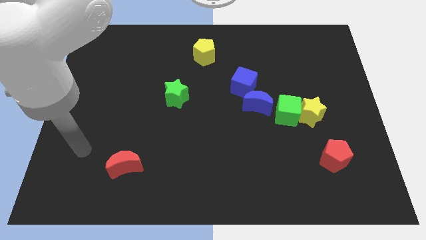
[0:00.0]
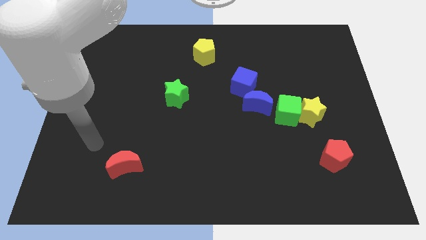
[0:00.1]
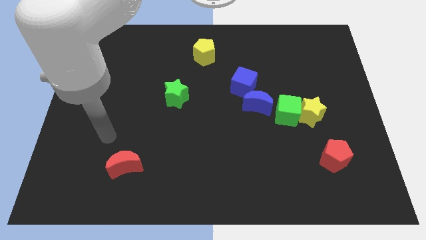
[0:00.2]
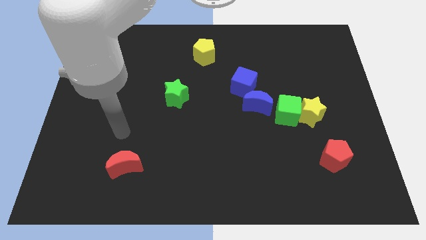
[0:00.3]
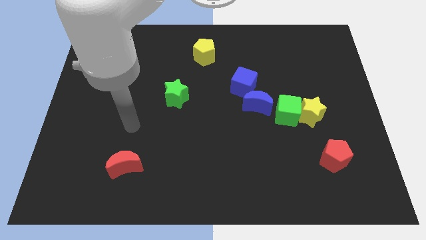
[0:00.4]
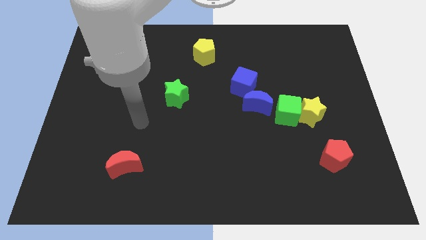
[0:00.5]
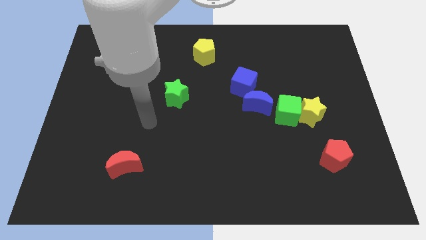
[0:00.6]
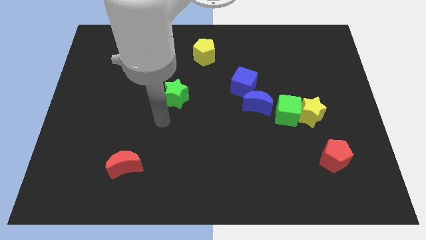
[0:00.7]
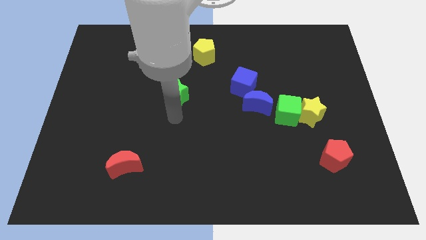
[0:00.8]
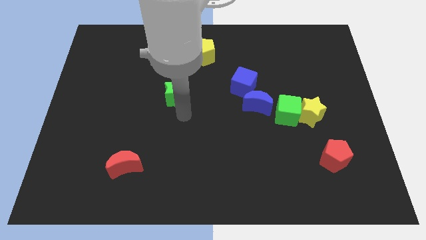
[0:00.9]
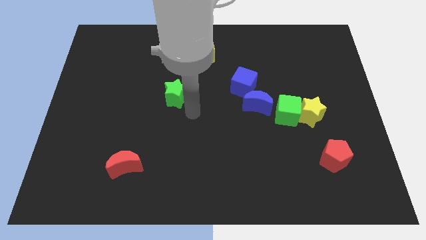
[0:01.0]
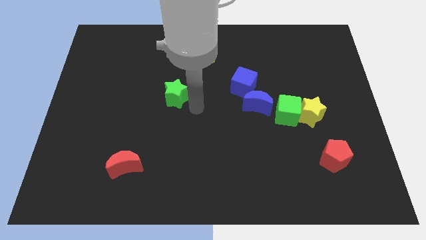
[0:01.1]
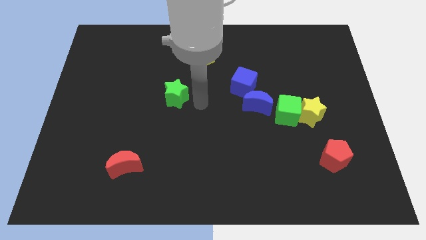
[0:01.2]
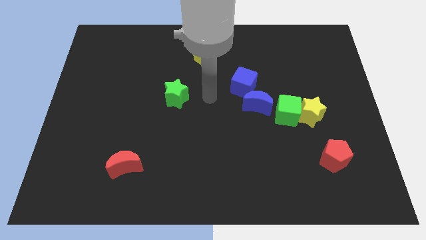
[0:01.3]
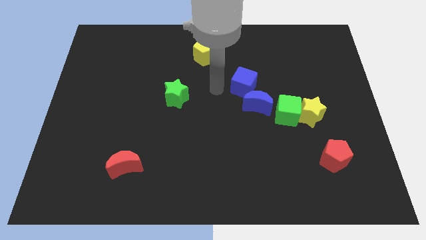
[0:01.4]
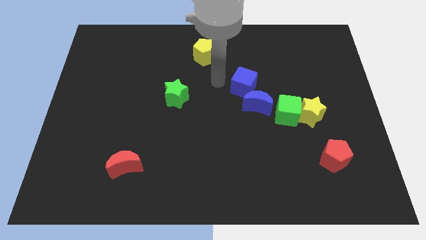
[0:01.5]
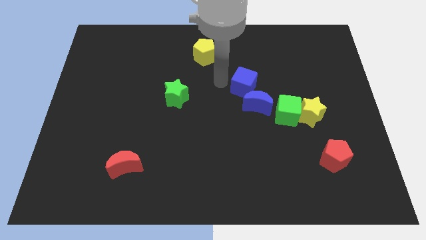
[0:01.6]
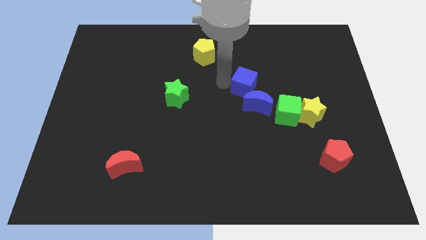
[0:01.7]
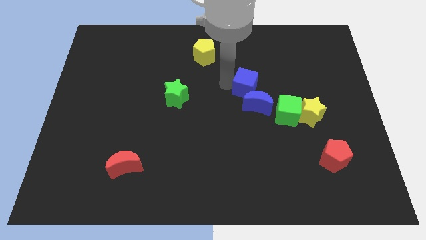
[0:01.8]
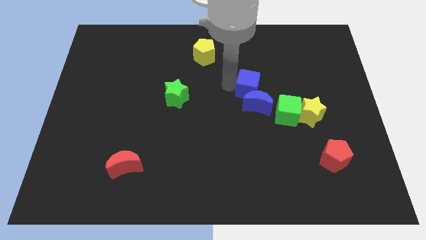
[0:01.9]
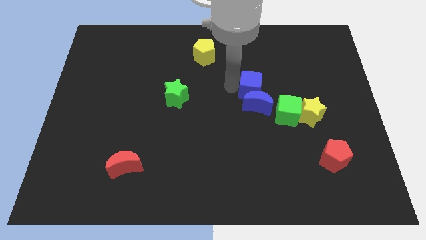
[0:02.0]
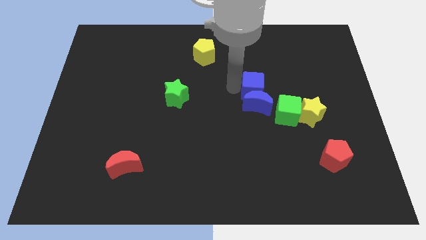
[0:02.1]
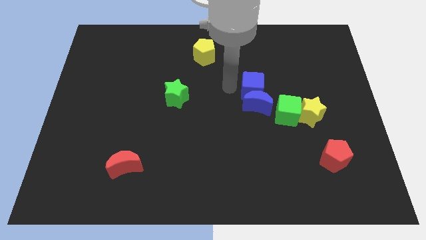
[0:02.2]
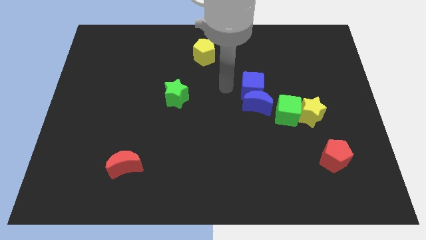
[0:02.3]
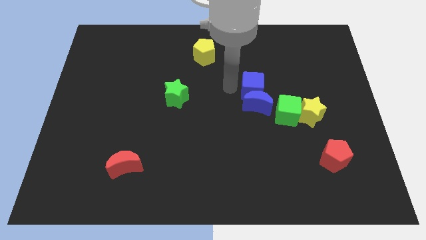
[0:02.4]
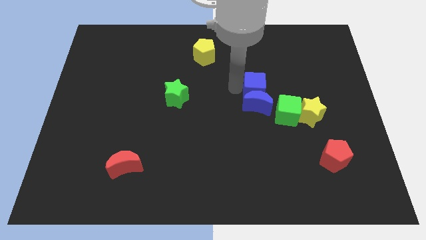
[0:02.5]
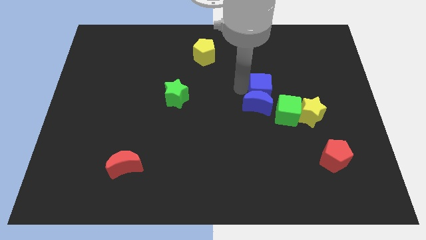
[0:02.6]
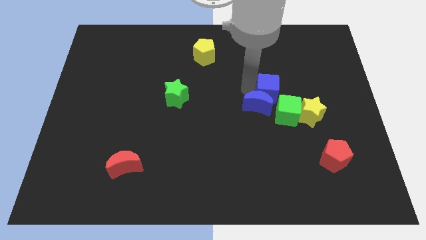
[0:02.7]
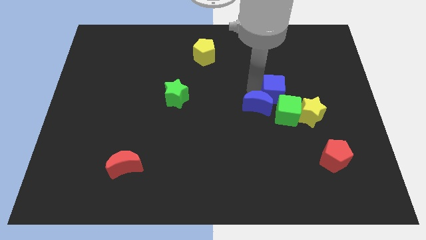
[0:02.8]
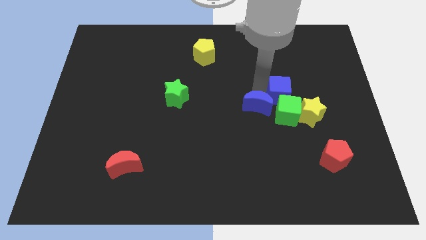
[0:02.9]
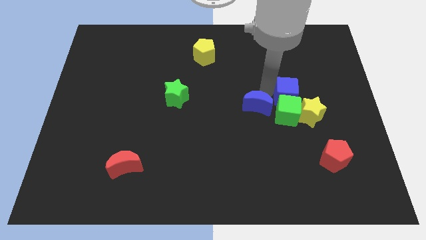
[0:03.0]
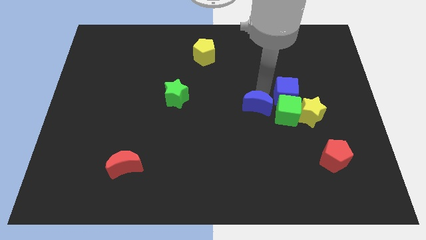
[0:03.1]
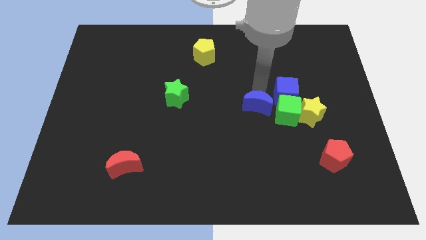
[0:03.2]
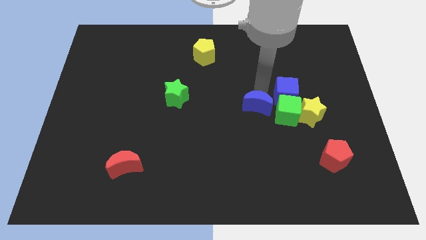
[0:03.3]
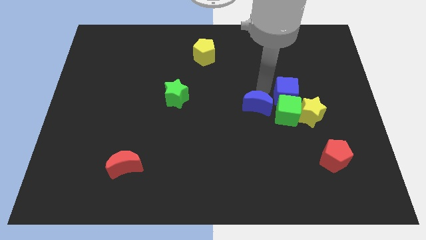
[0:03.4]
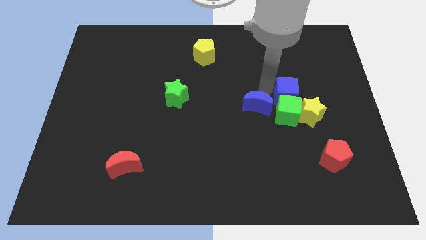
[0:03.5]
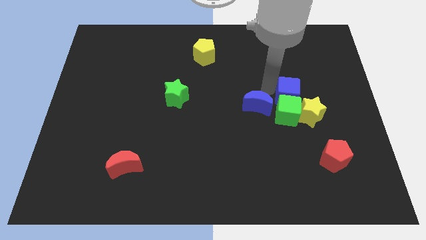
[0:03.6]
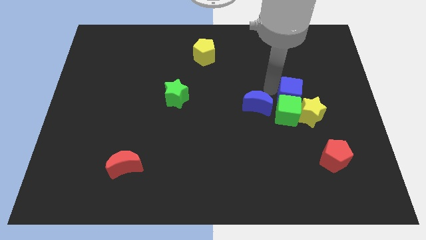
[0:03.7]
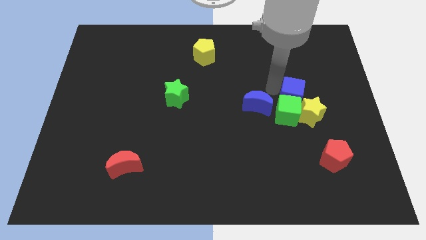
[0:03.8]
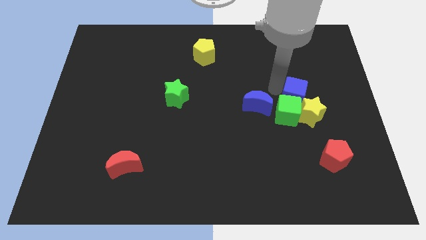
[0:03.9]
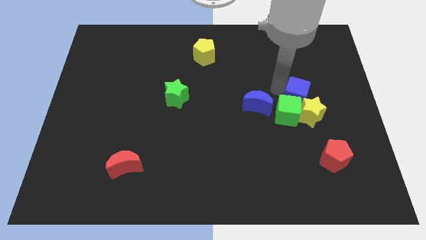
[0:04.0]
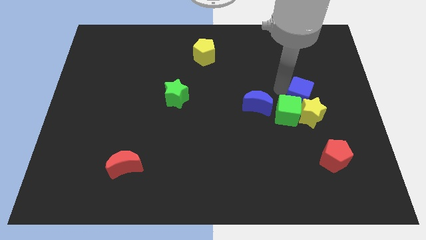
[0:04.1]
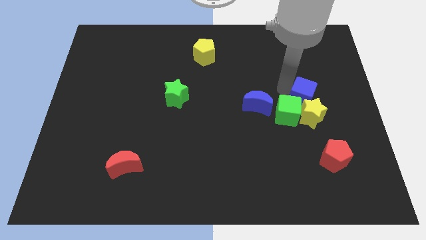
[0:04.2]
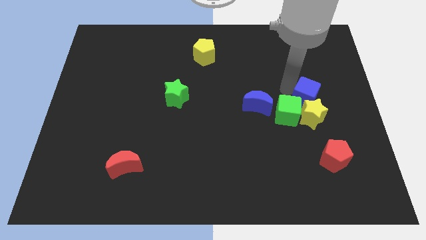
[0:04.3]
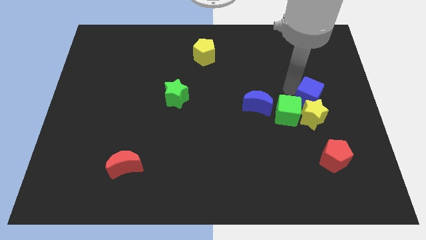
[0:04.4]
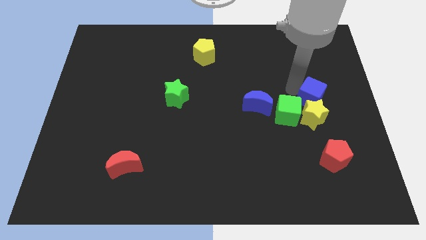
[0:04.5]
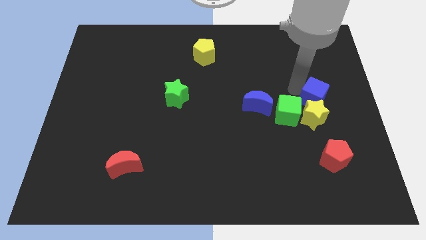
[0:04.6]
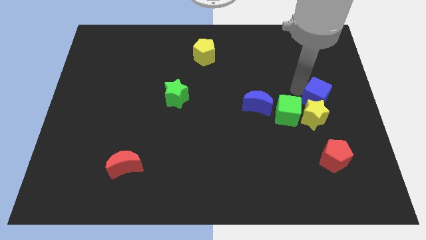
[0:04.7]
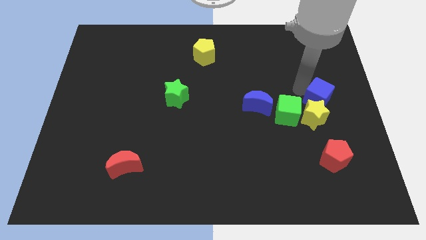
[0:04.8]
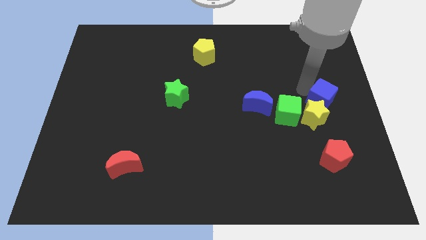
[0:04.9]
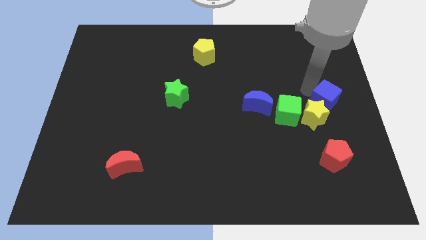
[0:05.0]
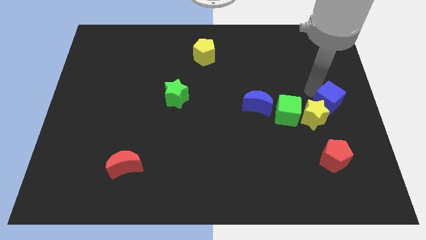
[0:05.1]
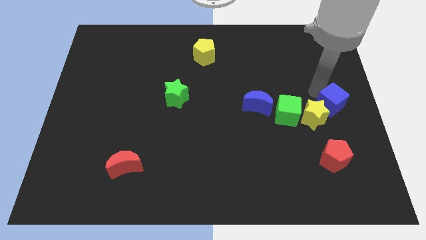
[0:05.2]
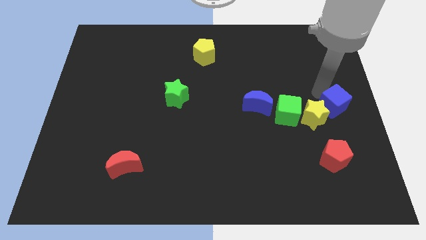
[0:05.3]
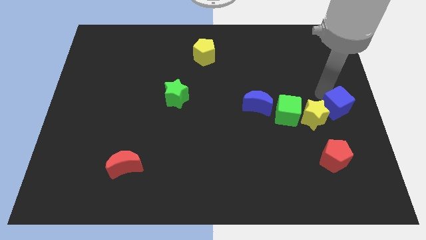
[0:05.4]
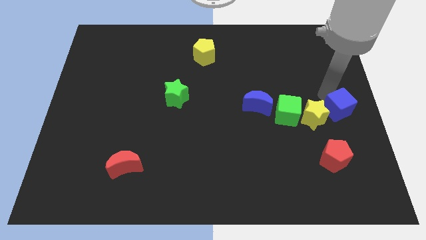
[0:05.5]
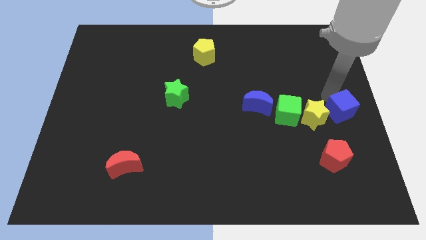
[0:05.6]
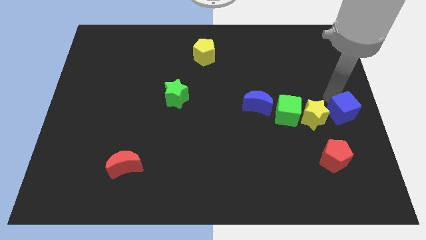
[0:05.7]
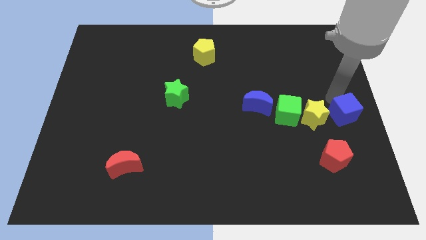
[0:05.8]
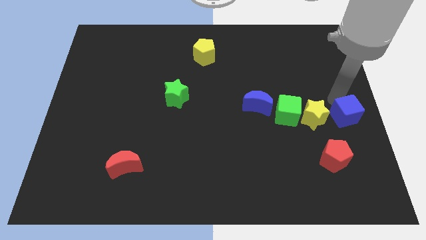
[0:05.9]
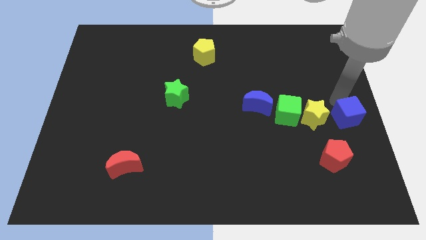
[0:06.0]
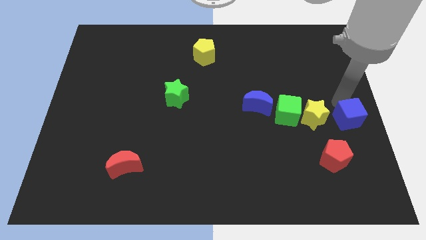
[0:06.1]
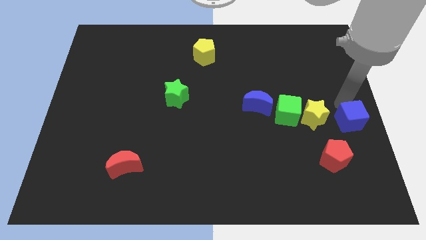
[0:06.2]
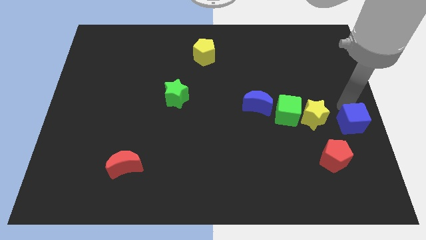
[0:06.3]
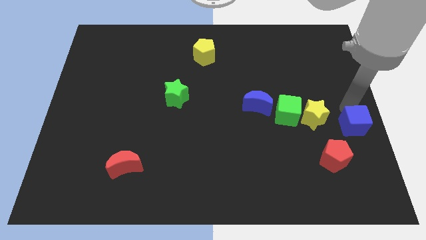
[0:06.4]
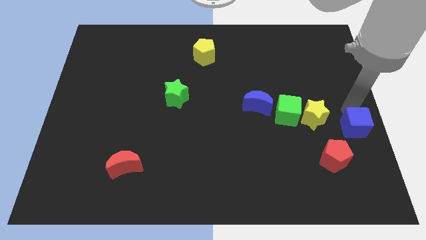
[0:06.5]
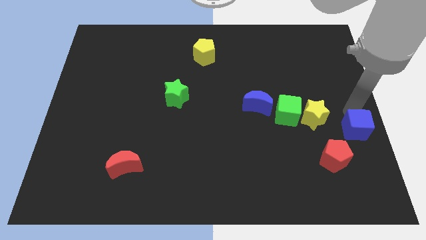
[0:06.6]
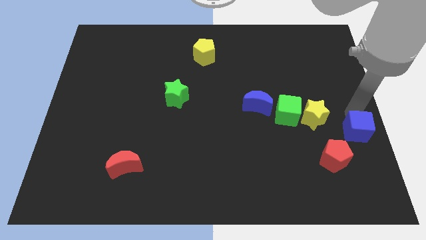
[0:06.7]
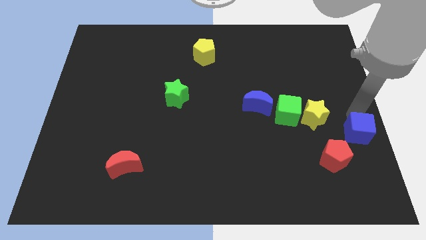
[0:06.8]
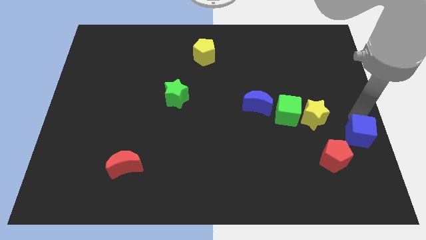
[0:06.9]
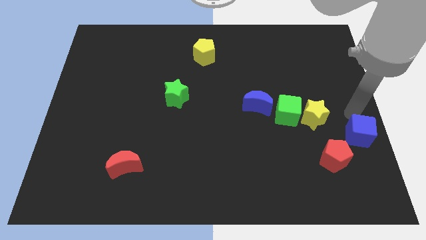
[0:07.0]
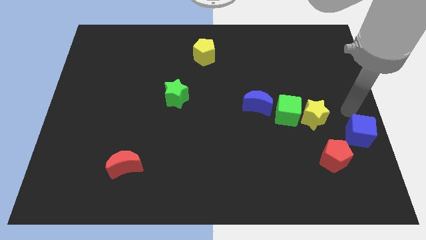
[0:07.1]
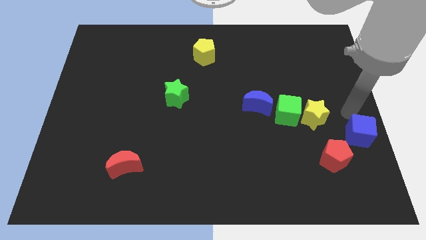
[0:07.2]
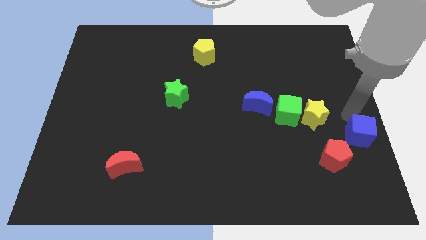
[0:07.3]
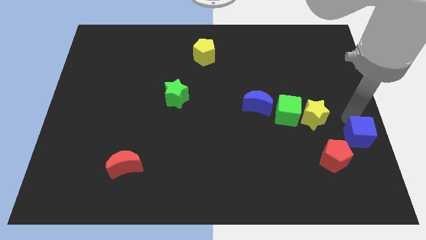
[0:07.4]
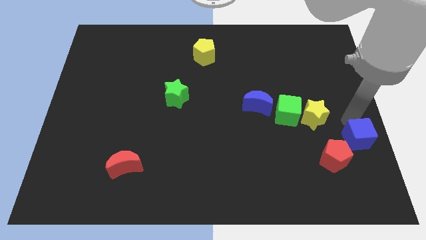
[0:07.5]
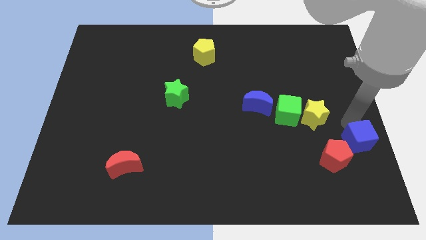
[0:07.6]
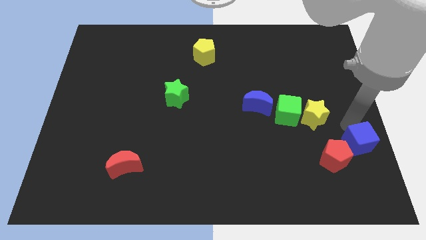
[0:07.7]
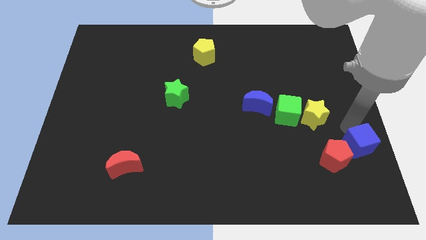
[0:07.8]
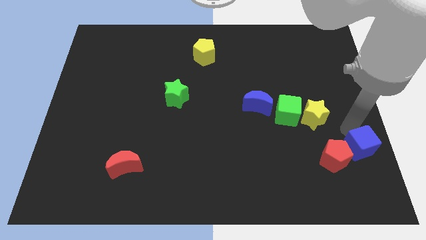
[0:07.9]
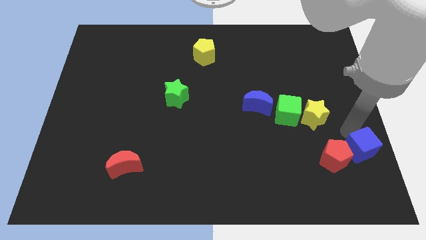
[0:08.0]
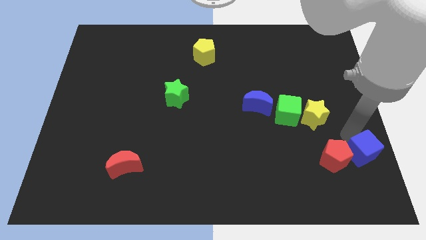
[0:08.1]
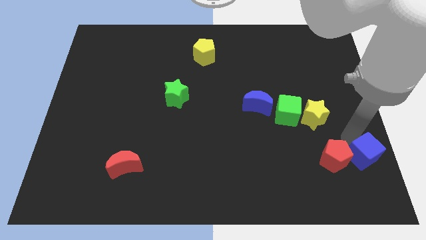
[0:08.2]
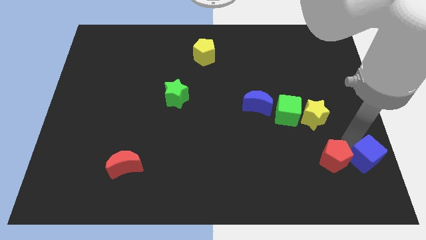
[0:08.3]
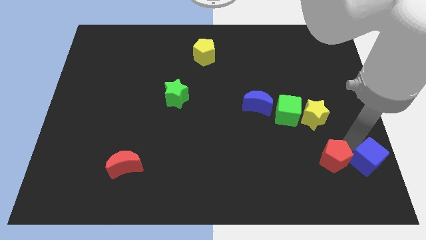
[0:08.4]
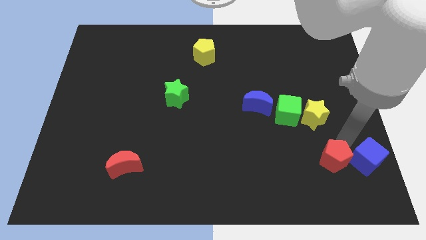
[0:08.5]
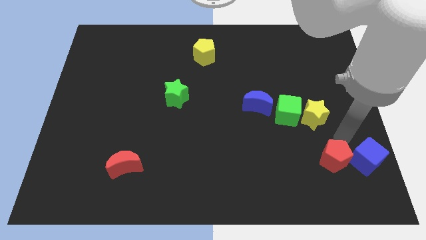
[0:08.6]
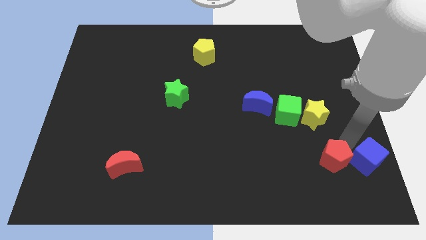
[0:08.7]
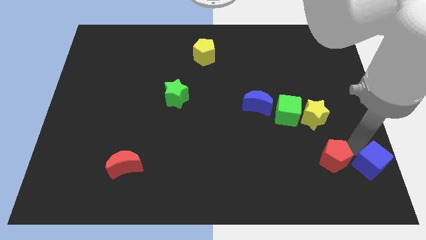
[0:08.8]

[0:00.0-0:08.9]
slide the blue cube to the lower right corner
